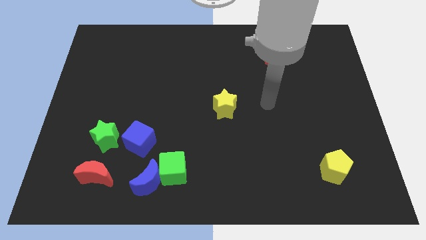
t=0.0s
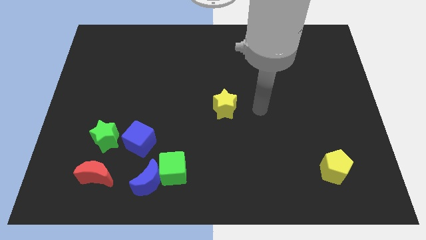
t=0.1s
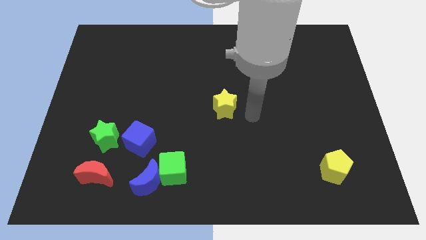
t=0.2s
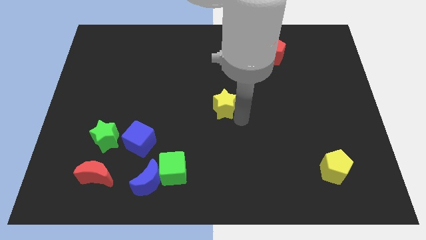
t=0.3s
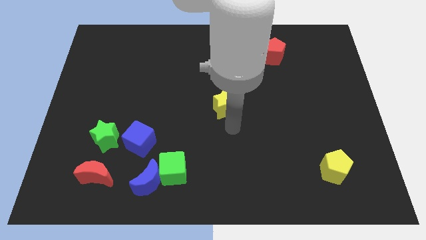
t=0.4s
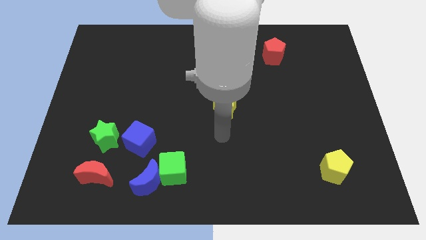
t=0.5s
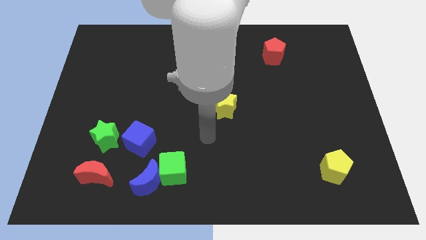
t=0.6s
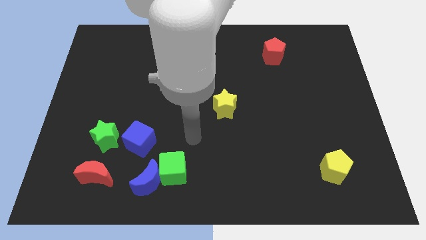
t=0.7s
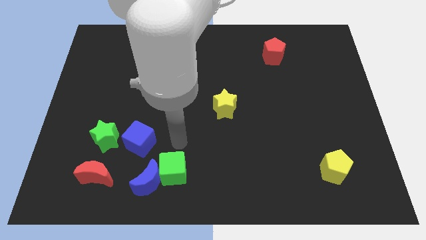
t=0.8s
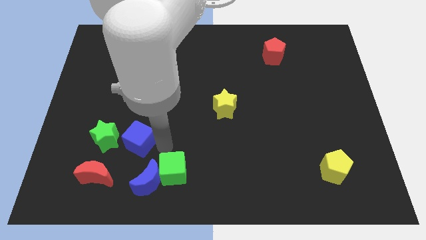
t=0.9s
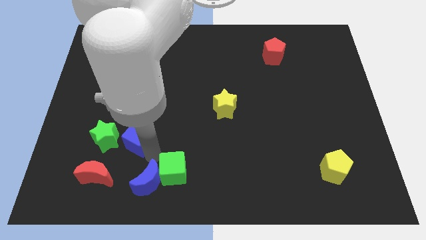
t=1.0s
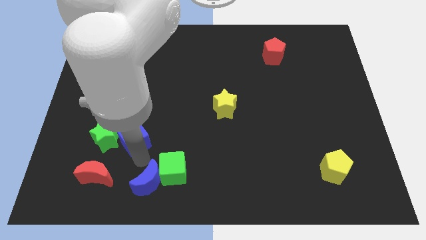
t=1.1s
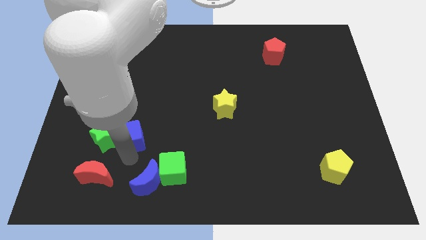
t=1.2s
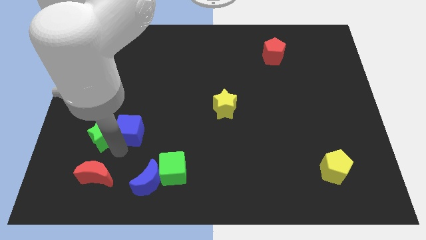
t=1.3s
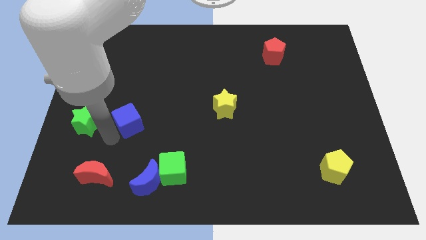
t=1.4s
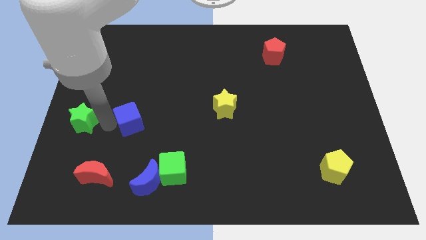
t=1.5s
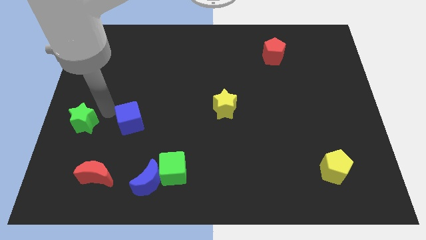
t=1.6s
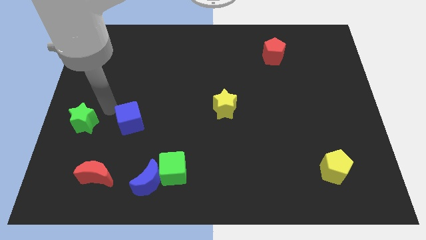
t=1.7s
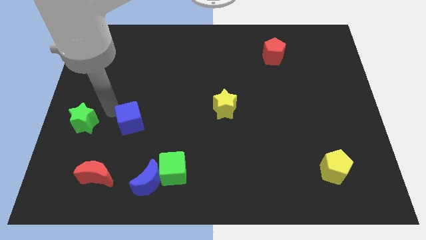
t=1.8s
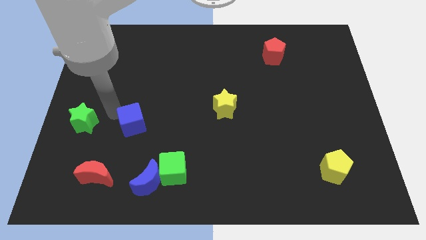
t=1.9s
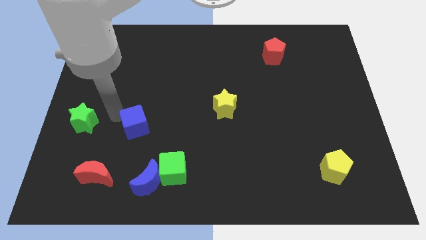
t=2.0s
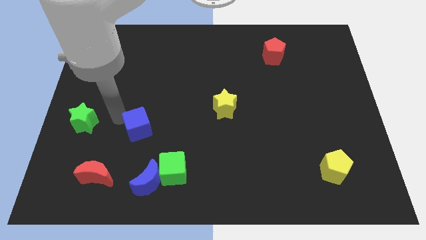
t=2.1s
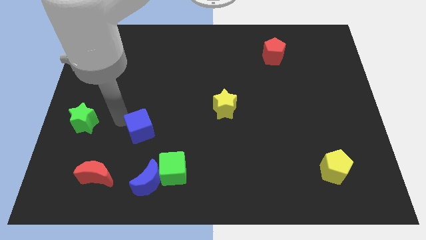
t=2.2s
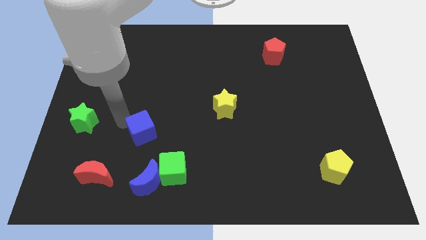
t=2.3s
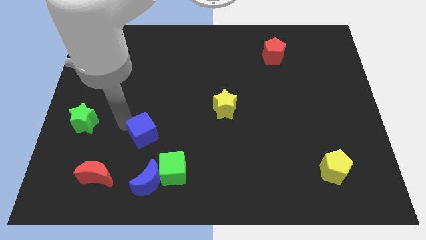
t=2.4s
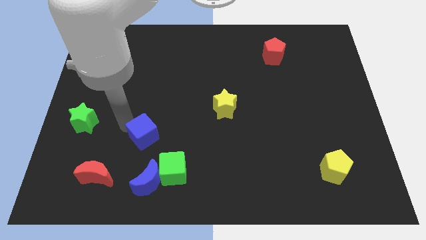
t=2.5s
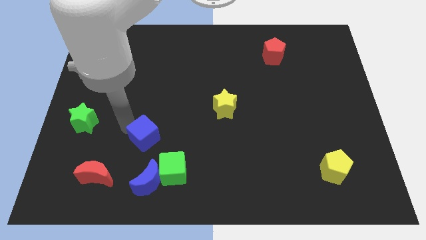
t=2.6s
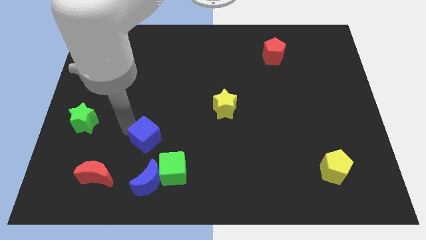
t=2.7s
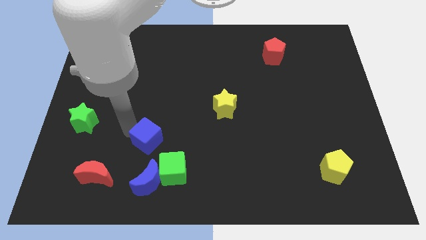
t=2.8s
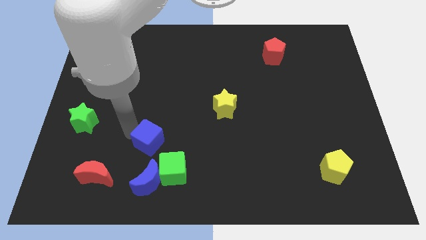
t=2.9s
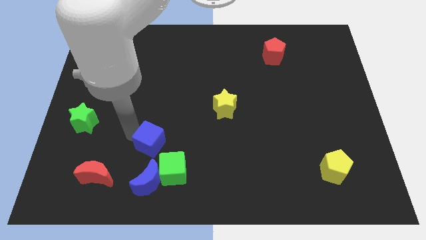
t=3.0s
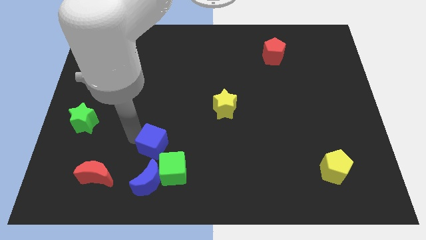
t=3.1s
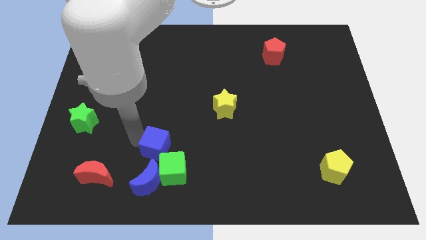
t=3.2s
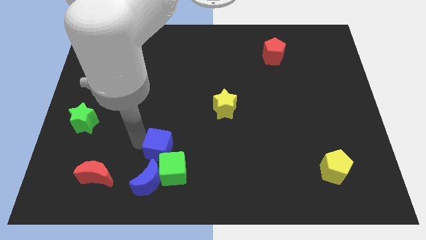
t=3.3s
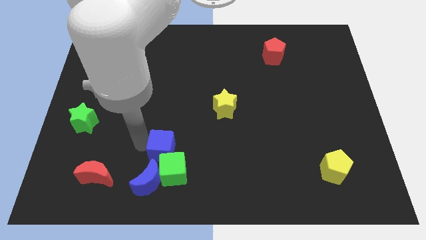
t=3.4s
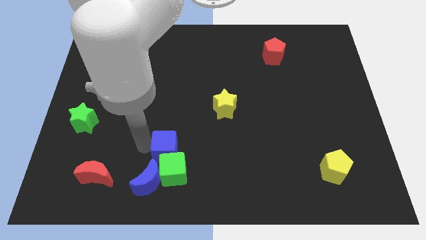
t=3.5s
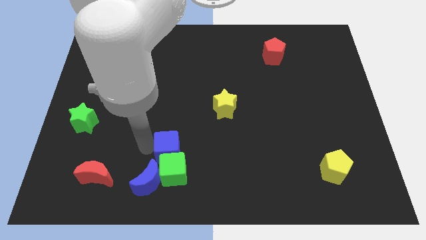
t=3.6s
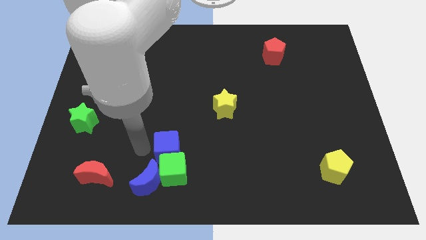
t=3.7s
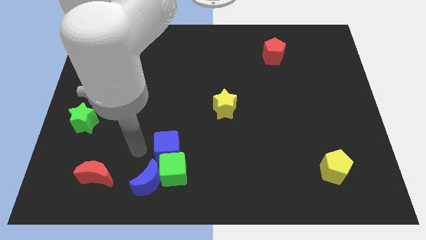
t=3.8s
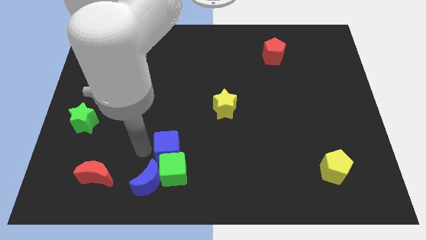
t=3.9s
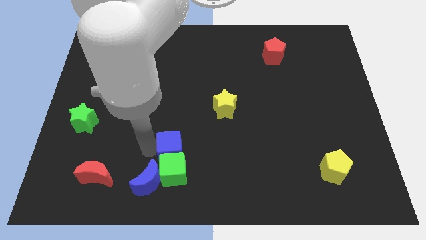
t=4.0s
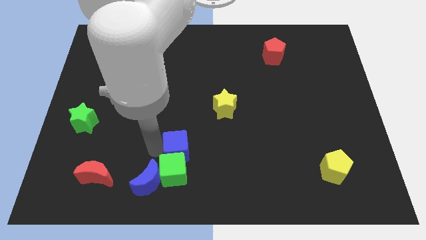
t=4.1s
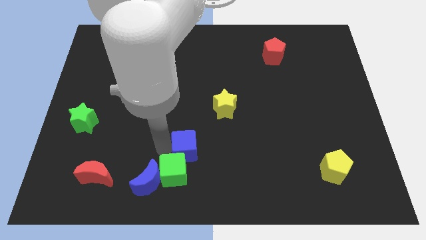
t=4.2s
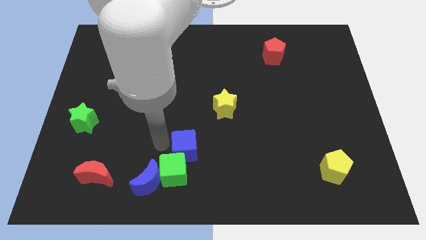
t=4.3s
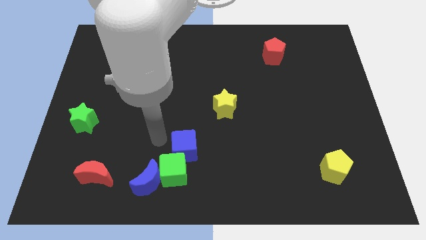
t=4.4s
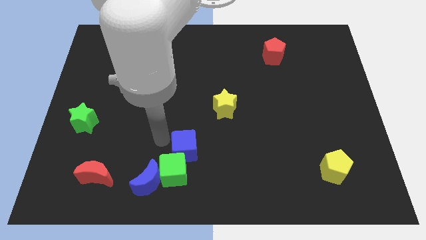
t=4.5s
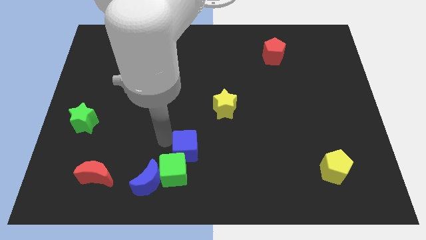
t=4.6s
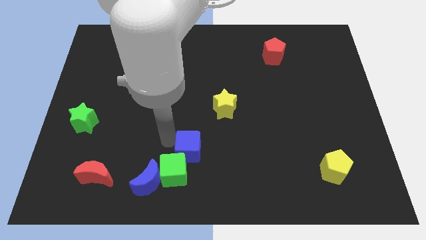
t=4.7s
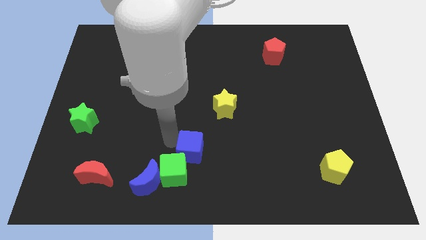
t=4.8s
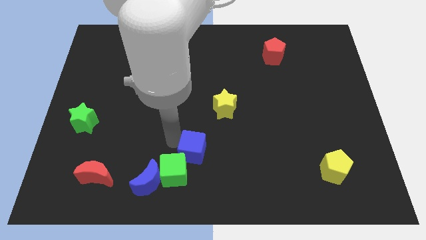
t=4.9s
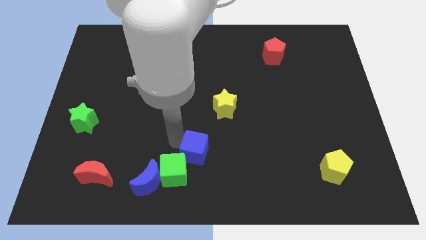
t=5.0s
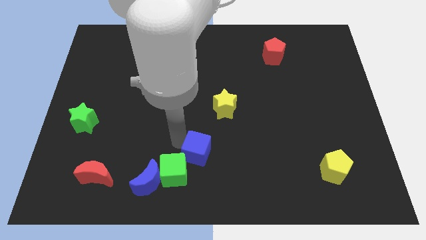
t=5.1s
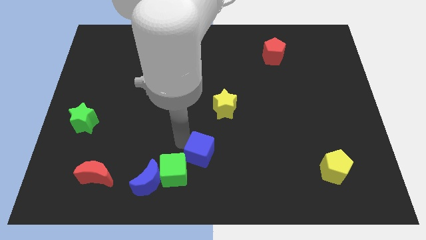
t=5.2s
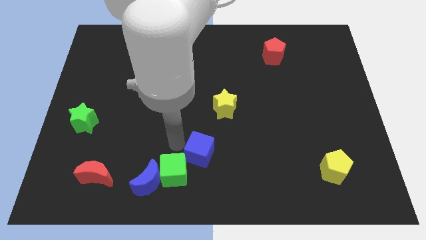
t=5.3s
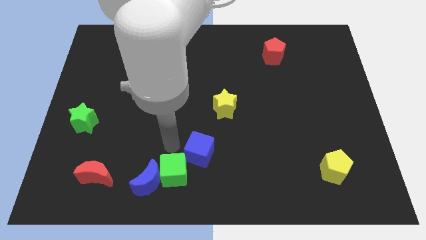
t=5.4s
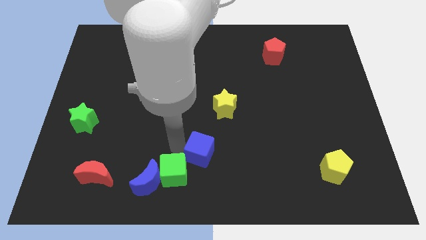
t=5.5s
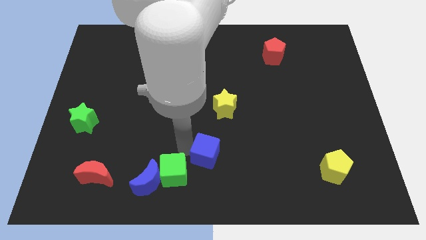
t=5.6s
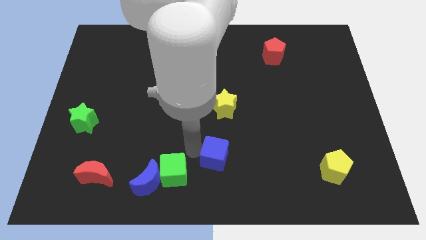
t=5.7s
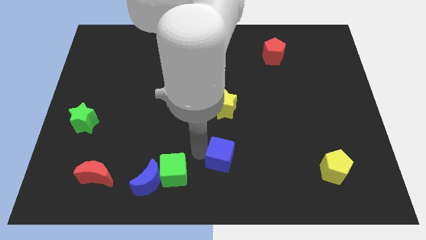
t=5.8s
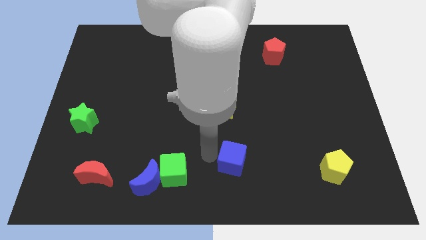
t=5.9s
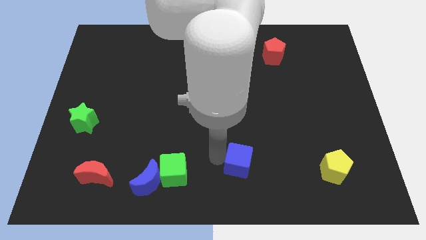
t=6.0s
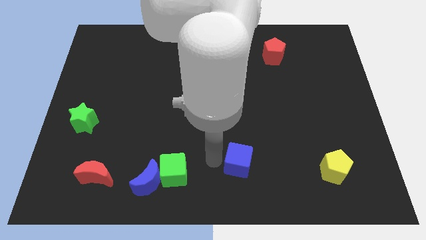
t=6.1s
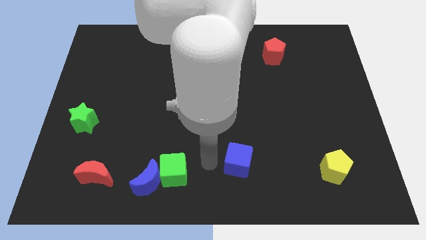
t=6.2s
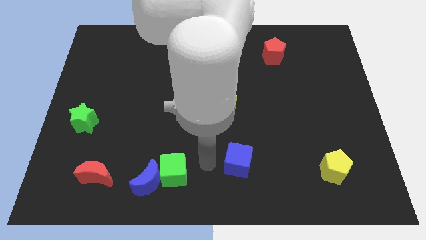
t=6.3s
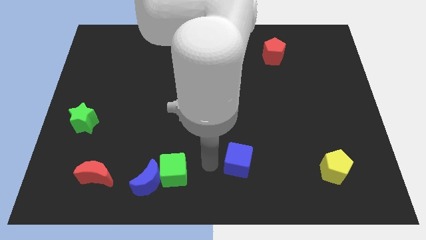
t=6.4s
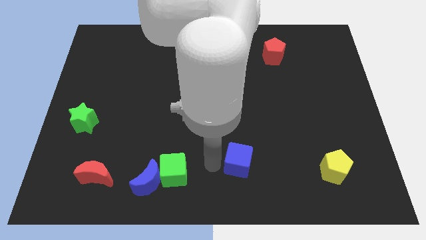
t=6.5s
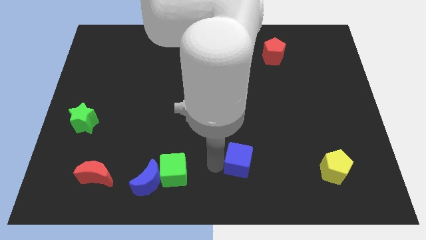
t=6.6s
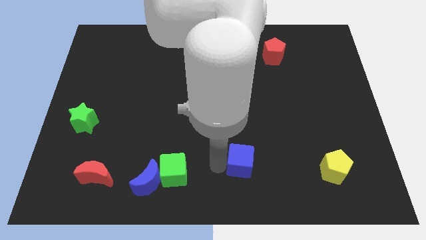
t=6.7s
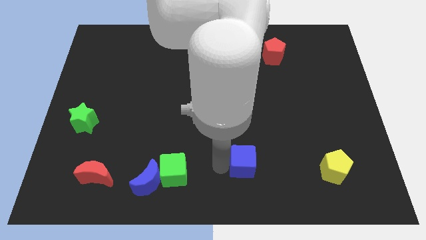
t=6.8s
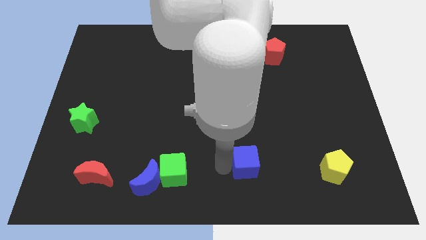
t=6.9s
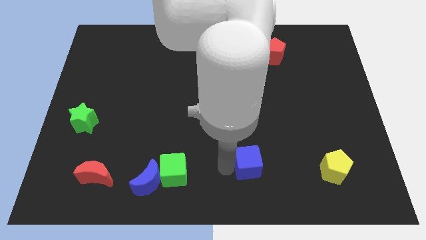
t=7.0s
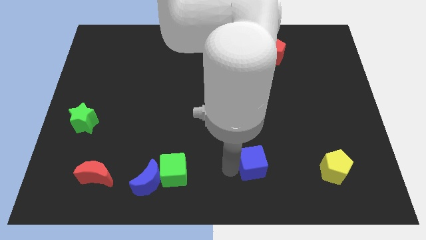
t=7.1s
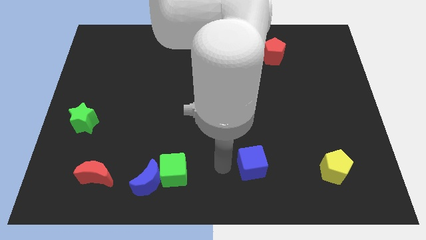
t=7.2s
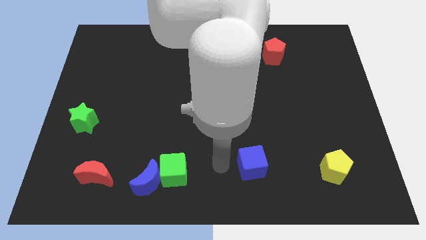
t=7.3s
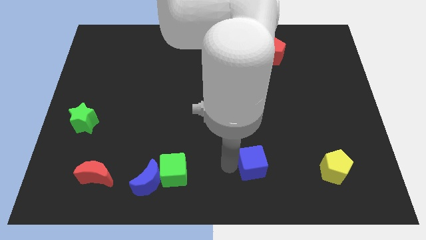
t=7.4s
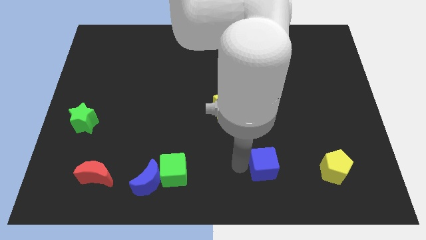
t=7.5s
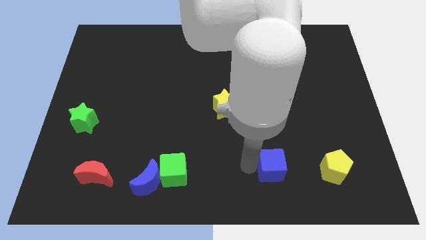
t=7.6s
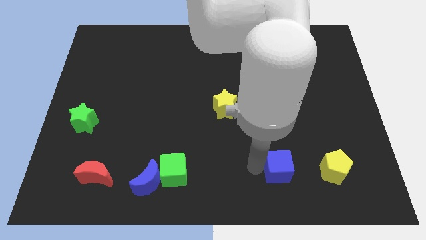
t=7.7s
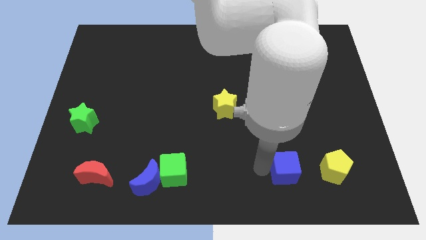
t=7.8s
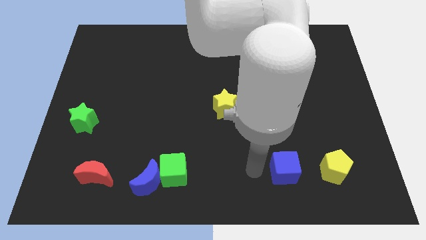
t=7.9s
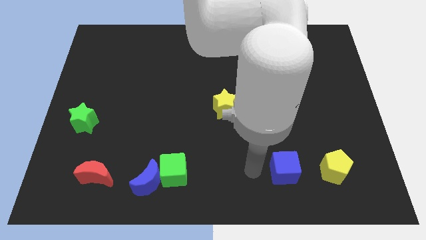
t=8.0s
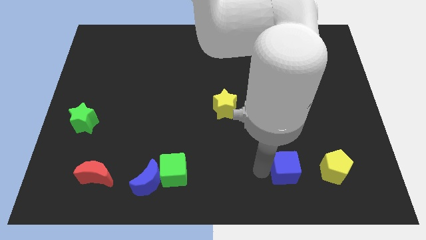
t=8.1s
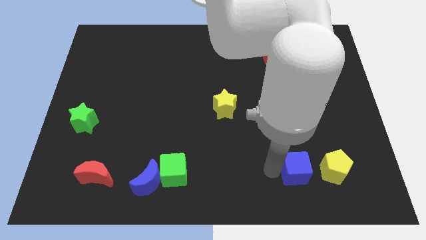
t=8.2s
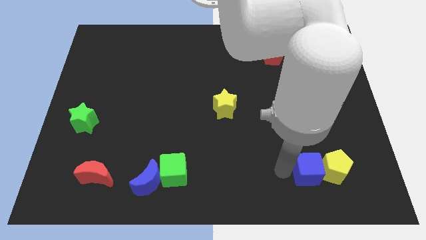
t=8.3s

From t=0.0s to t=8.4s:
push the blue cube next to the yellow pentagon
